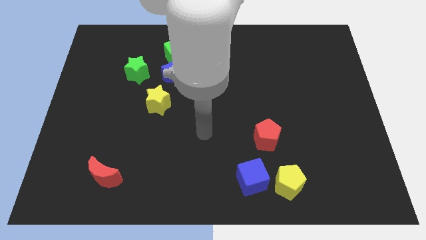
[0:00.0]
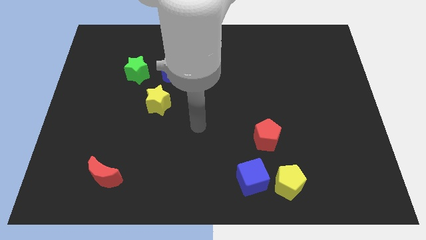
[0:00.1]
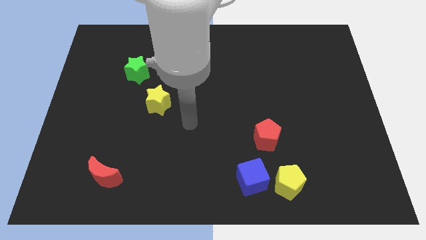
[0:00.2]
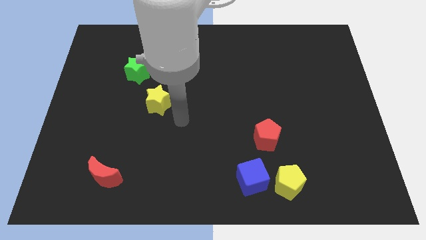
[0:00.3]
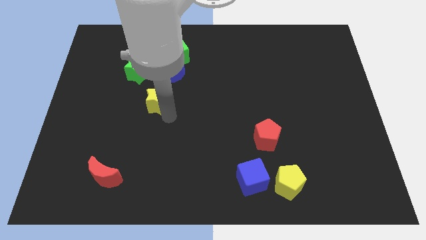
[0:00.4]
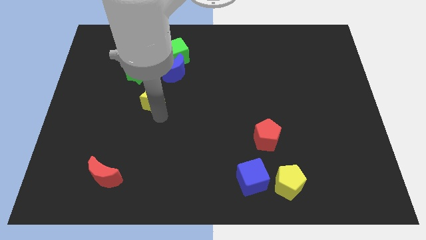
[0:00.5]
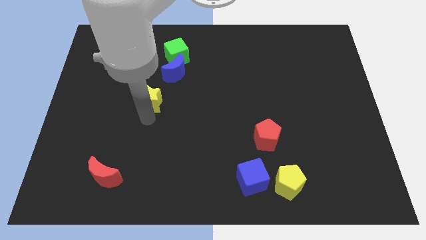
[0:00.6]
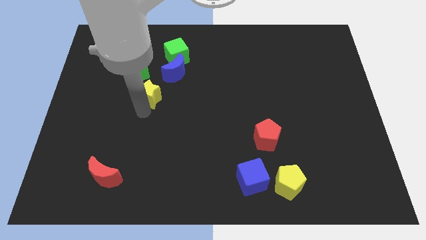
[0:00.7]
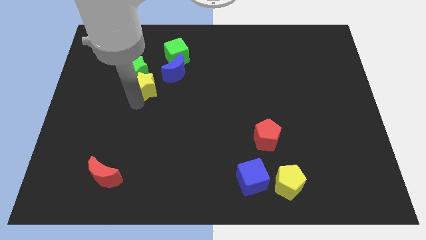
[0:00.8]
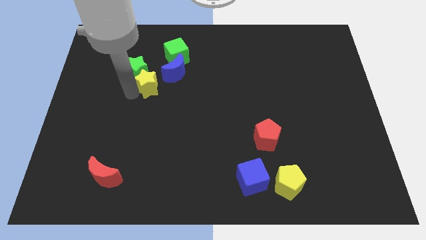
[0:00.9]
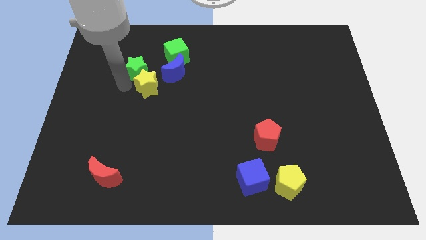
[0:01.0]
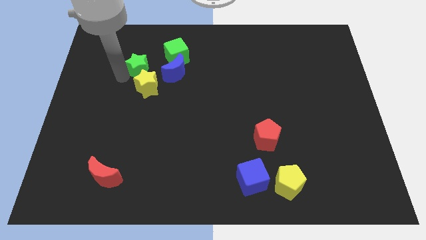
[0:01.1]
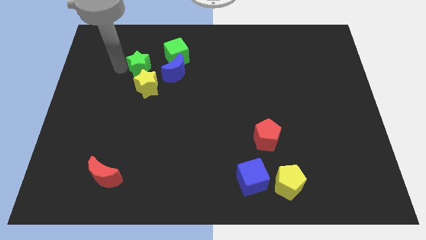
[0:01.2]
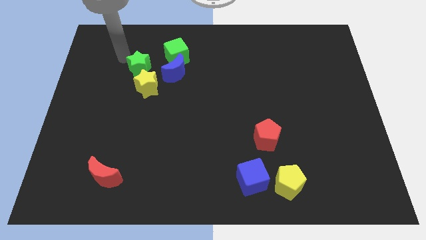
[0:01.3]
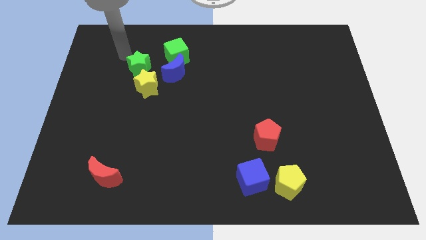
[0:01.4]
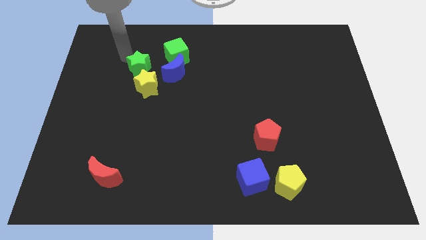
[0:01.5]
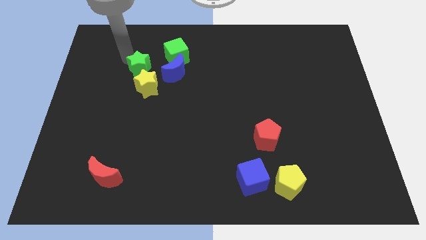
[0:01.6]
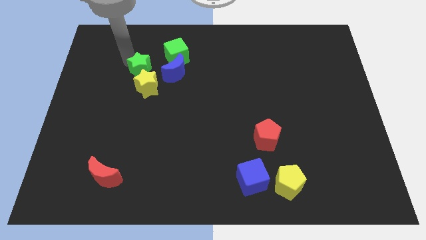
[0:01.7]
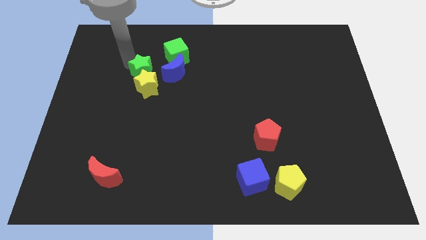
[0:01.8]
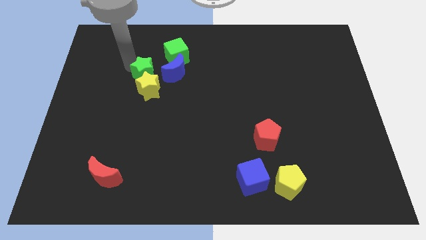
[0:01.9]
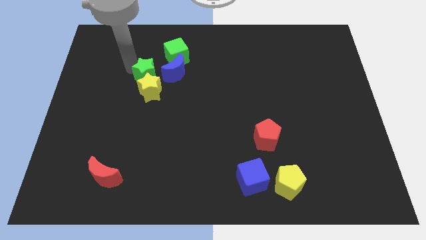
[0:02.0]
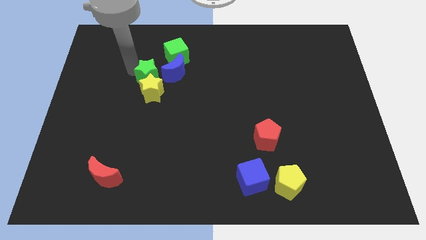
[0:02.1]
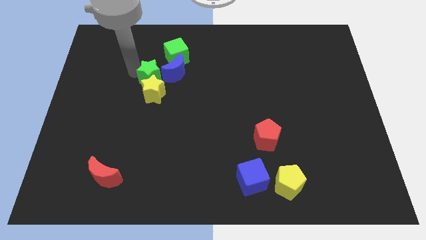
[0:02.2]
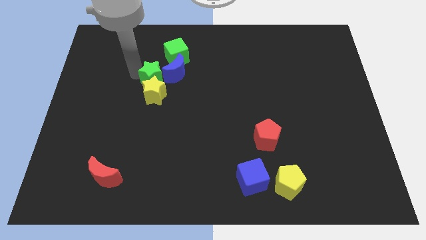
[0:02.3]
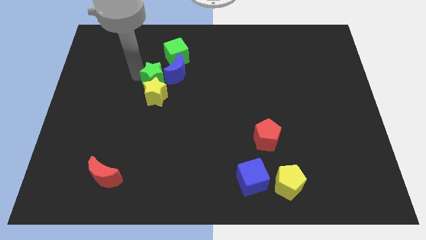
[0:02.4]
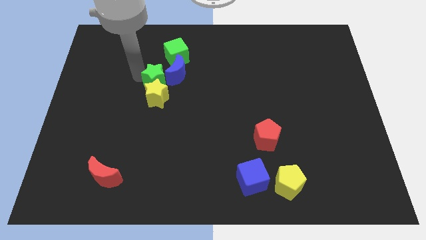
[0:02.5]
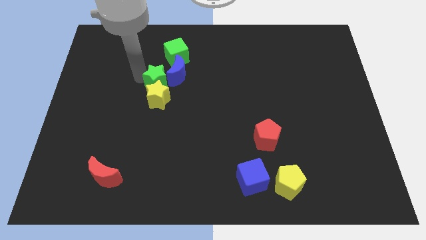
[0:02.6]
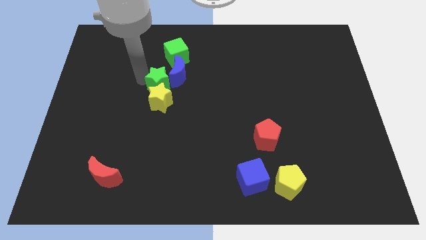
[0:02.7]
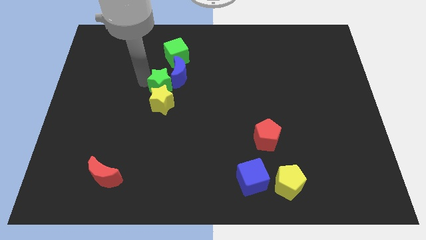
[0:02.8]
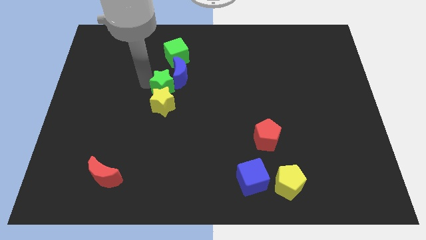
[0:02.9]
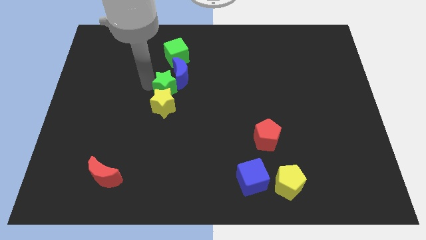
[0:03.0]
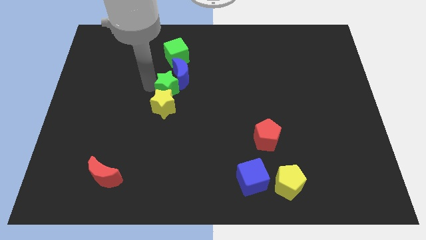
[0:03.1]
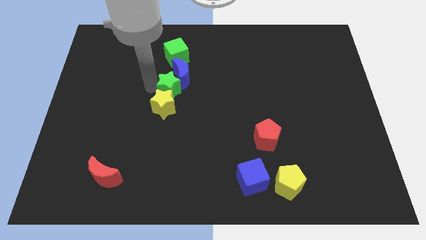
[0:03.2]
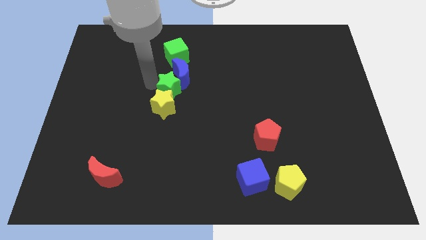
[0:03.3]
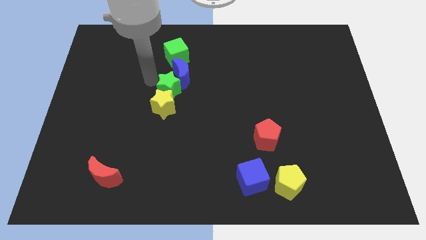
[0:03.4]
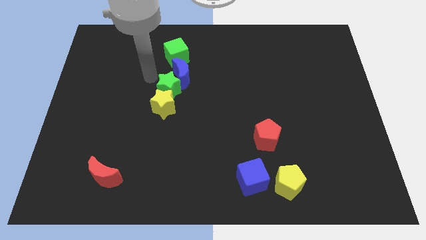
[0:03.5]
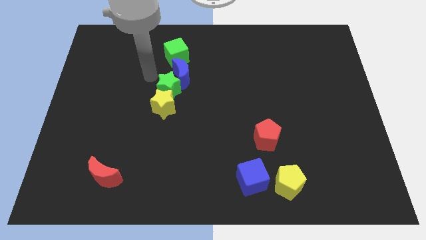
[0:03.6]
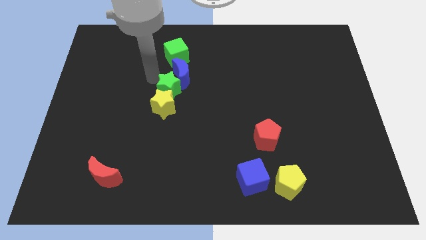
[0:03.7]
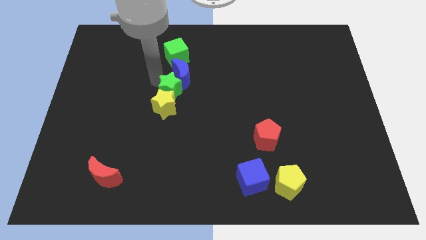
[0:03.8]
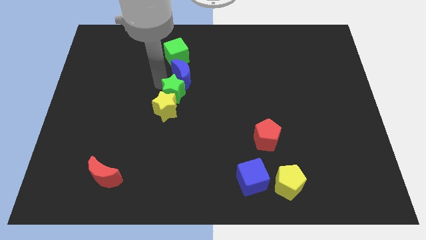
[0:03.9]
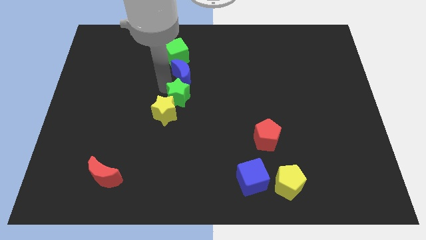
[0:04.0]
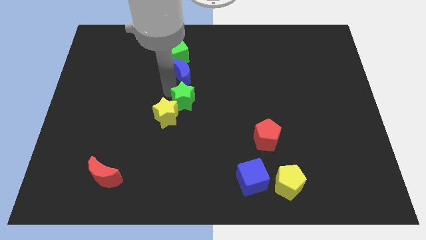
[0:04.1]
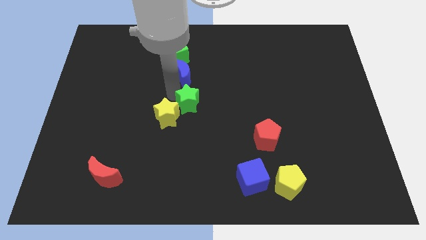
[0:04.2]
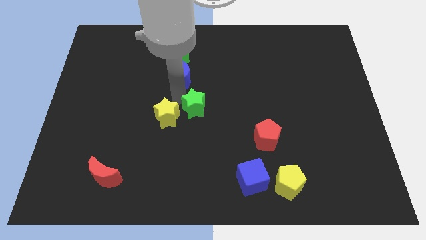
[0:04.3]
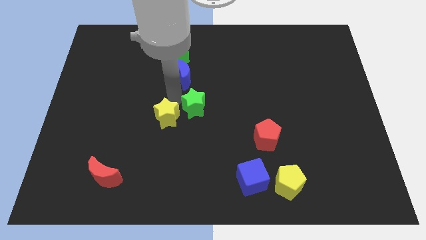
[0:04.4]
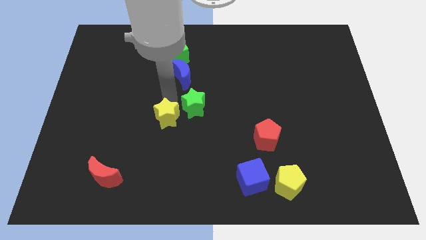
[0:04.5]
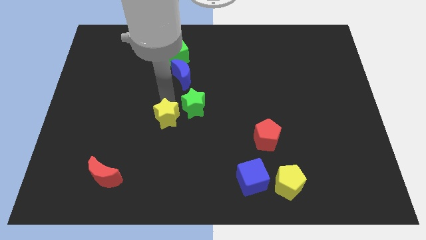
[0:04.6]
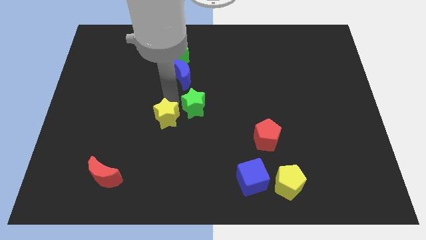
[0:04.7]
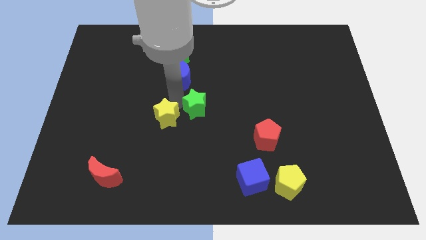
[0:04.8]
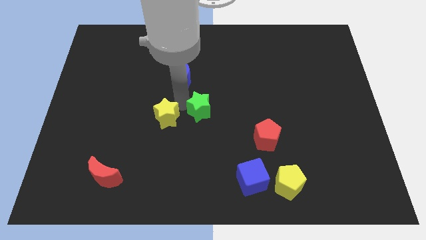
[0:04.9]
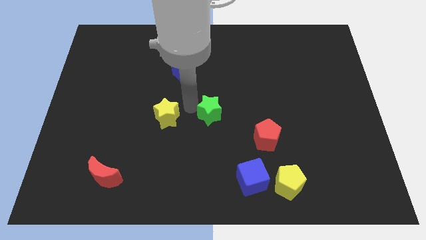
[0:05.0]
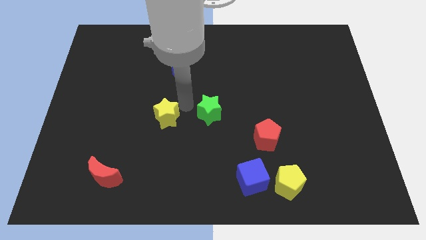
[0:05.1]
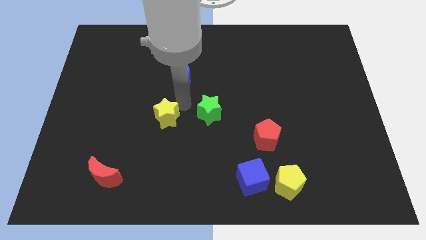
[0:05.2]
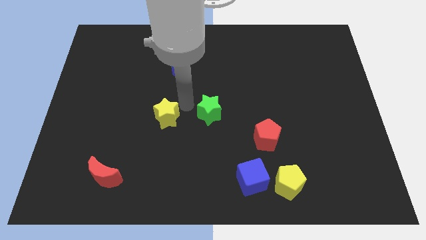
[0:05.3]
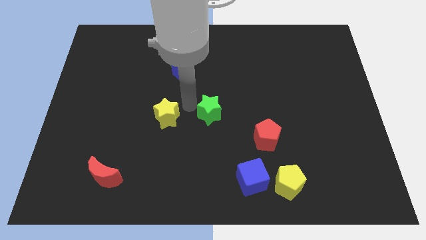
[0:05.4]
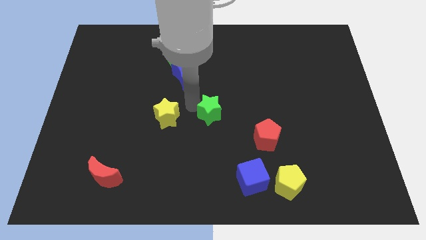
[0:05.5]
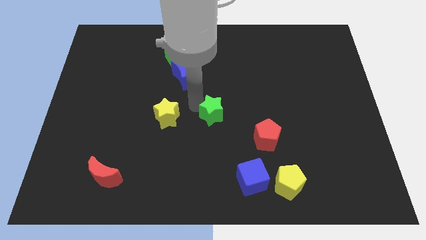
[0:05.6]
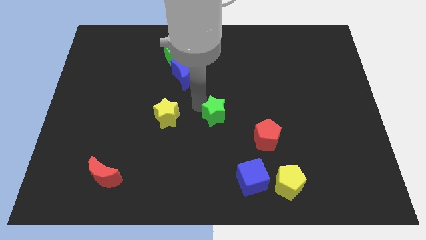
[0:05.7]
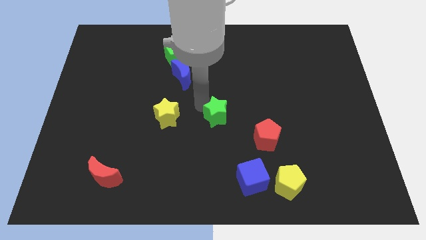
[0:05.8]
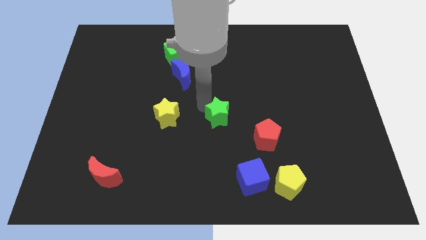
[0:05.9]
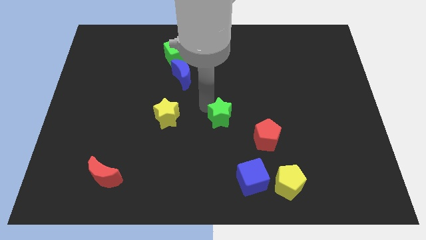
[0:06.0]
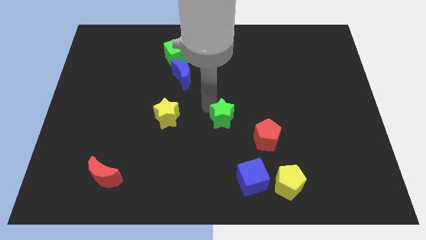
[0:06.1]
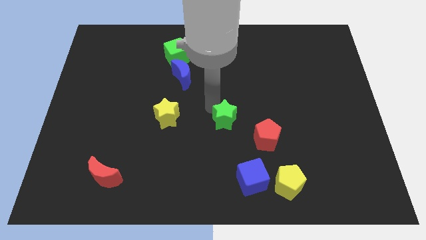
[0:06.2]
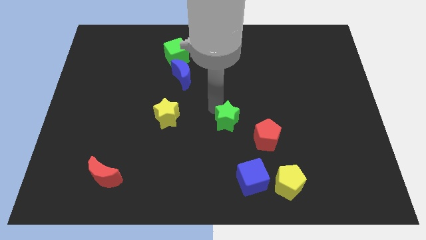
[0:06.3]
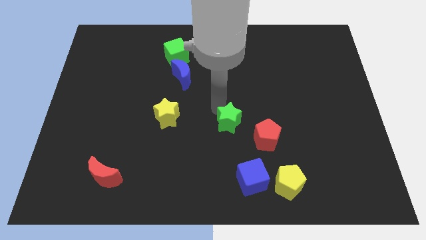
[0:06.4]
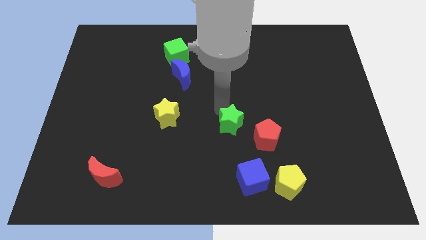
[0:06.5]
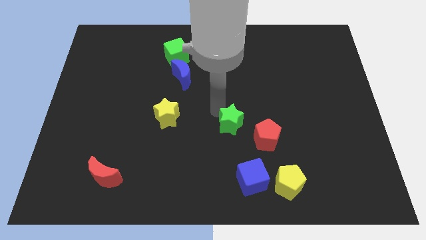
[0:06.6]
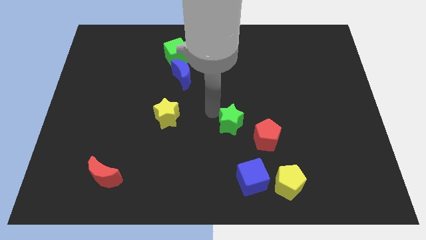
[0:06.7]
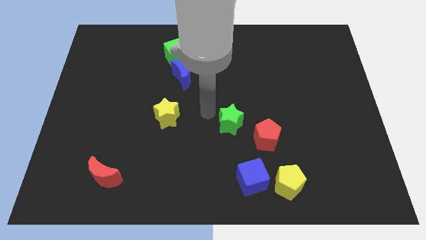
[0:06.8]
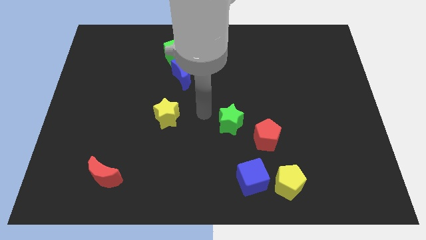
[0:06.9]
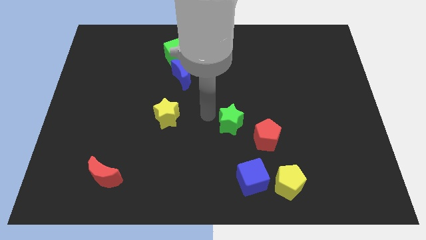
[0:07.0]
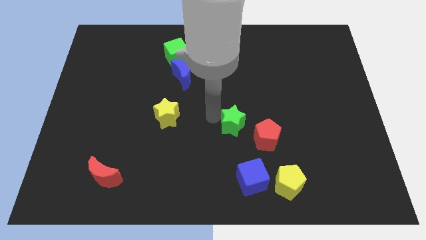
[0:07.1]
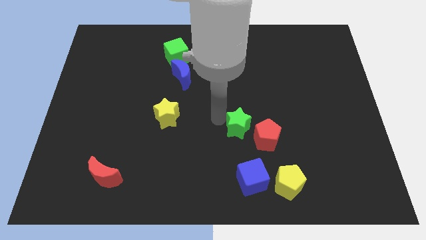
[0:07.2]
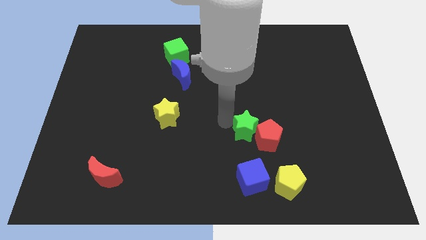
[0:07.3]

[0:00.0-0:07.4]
slide the green star close to the red pentagon
